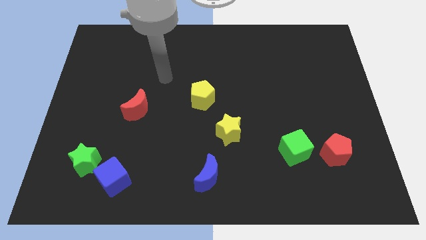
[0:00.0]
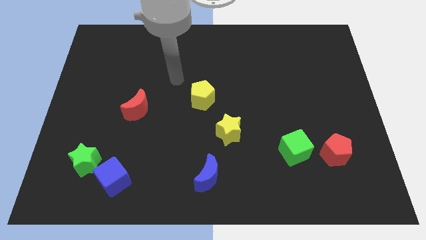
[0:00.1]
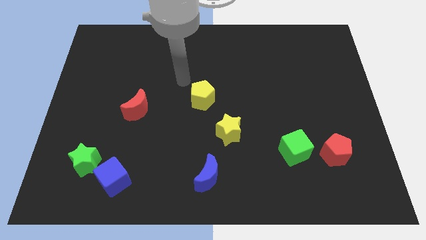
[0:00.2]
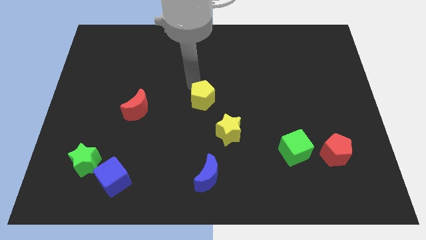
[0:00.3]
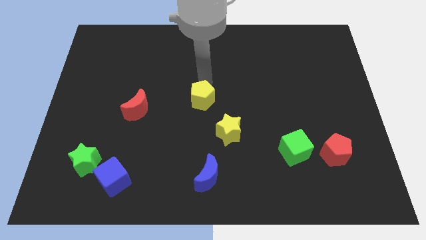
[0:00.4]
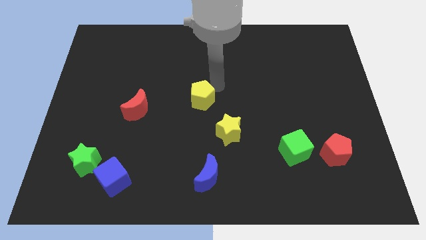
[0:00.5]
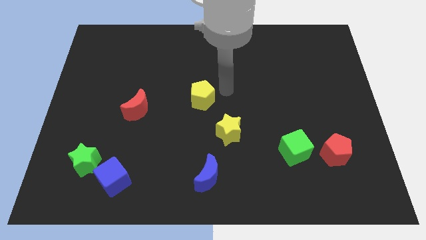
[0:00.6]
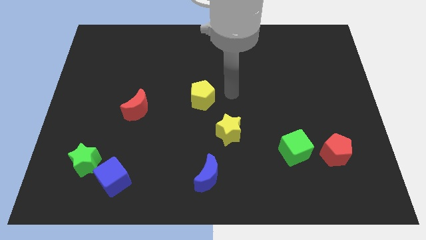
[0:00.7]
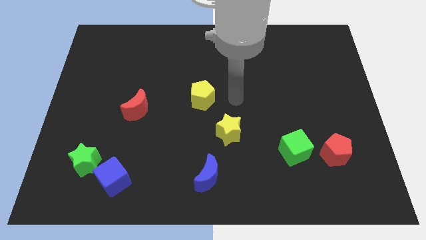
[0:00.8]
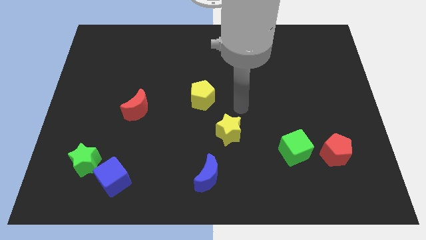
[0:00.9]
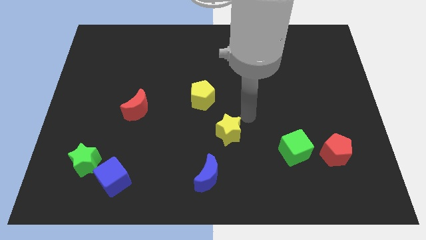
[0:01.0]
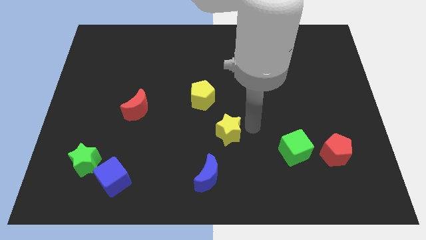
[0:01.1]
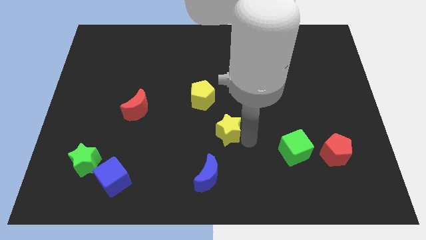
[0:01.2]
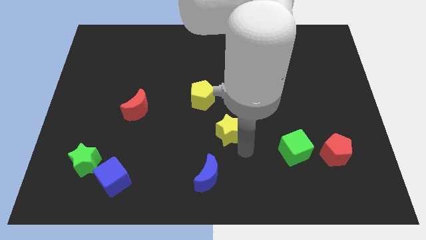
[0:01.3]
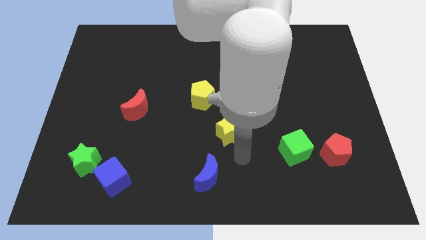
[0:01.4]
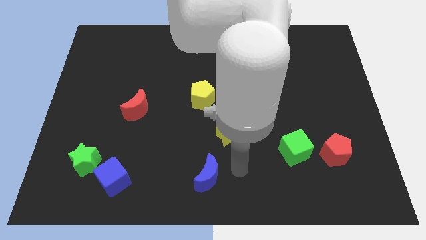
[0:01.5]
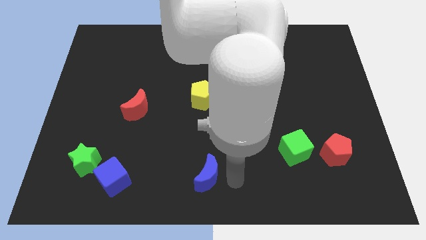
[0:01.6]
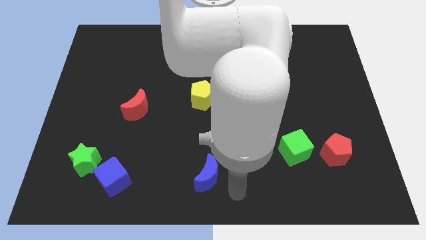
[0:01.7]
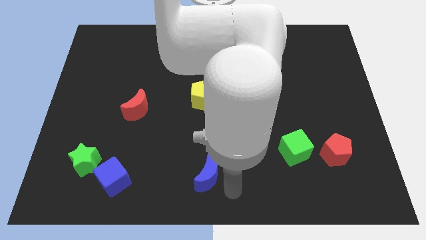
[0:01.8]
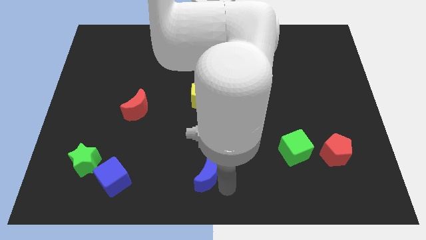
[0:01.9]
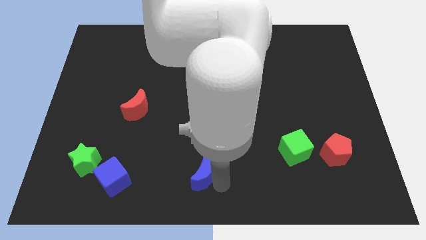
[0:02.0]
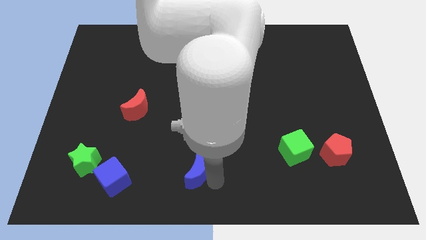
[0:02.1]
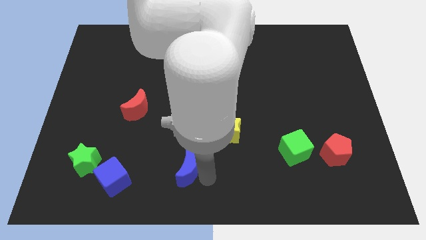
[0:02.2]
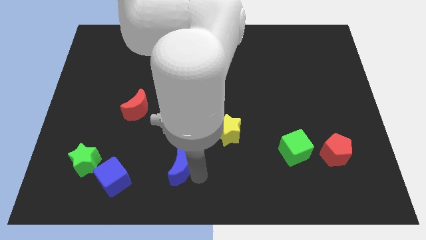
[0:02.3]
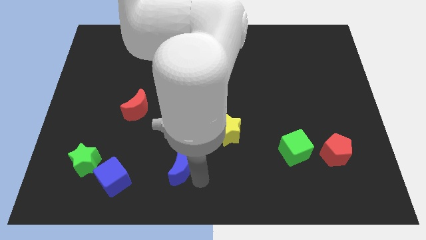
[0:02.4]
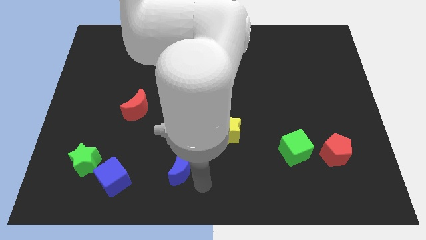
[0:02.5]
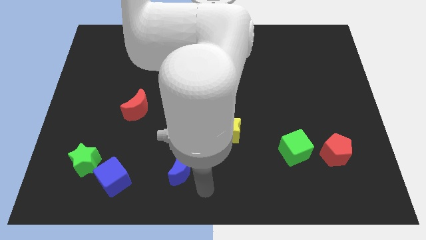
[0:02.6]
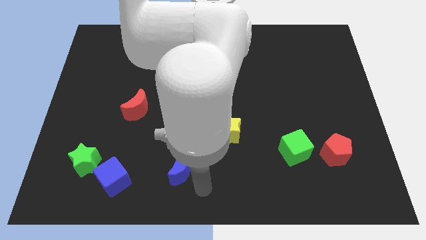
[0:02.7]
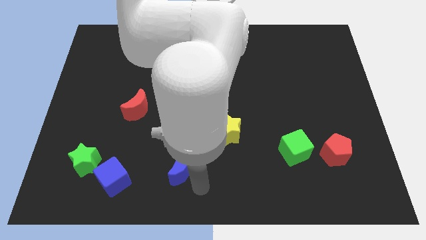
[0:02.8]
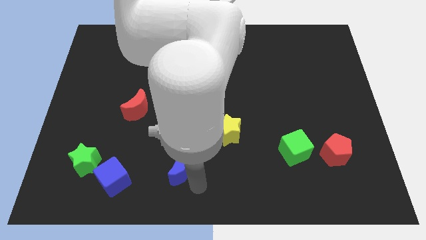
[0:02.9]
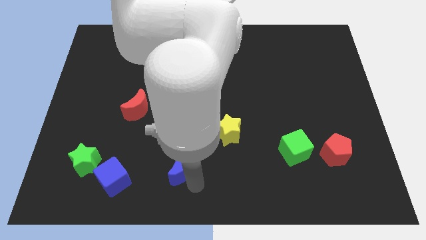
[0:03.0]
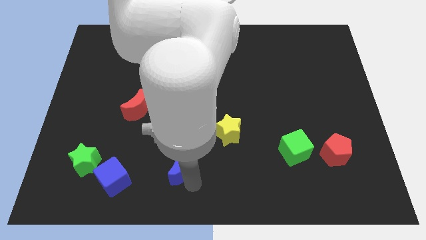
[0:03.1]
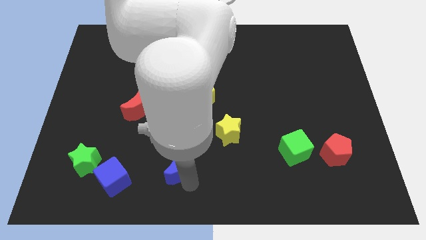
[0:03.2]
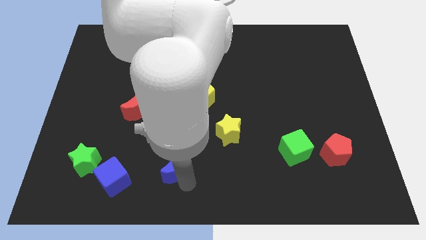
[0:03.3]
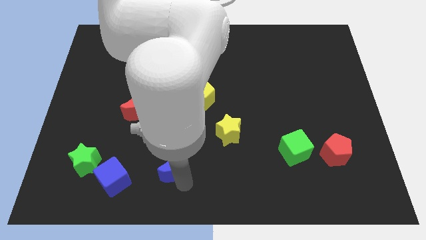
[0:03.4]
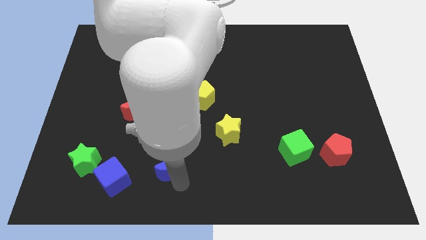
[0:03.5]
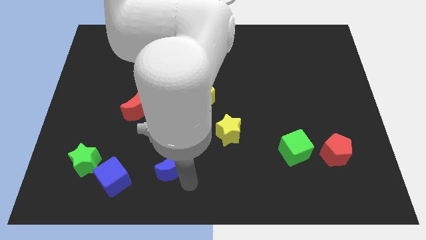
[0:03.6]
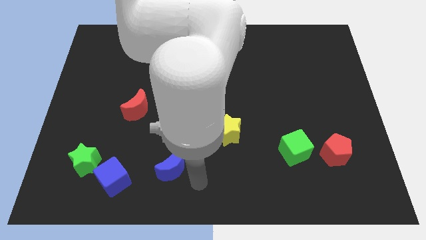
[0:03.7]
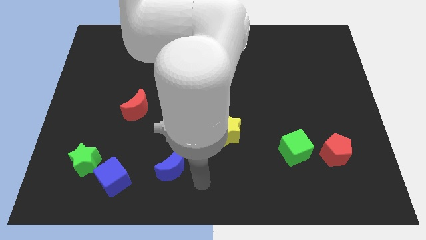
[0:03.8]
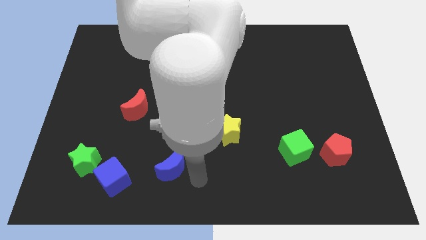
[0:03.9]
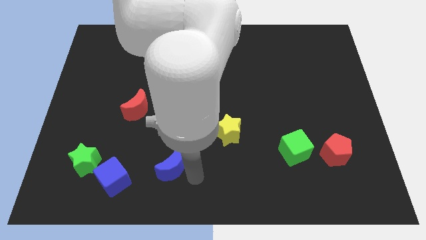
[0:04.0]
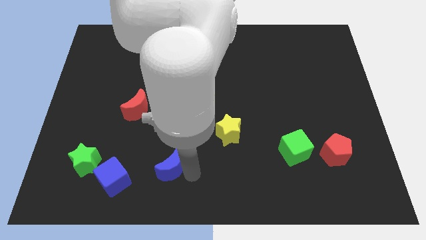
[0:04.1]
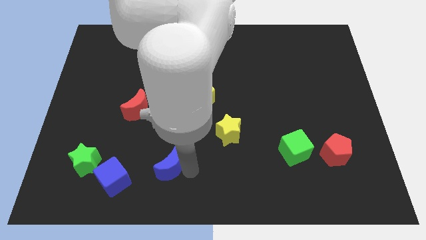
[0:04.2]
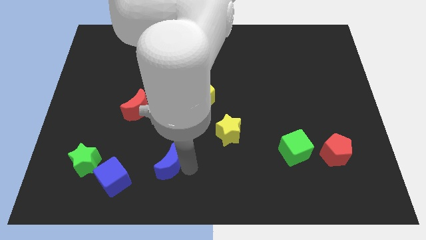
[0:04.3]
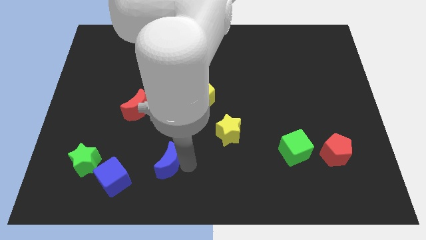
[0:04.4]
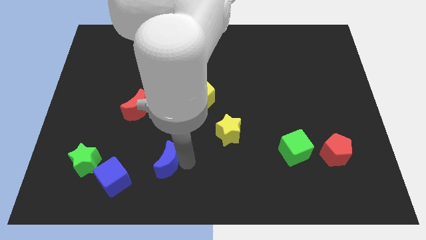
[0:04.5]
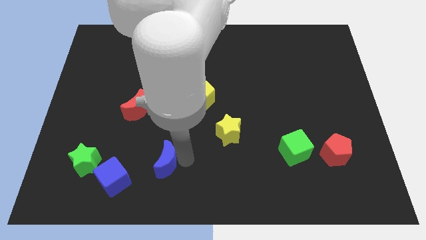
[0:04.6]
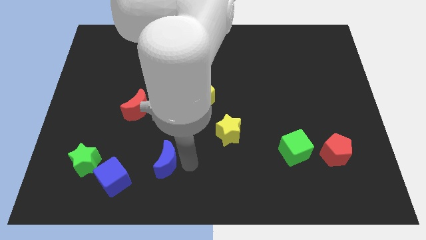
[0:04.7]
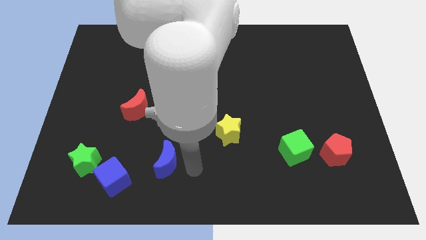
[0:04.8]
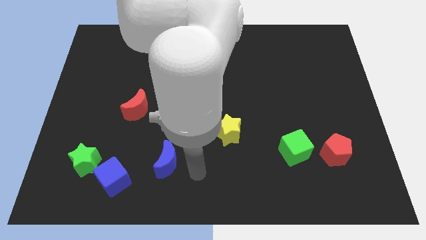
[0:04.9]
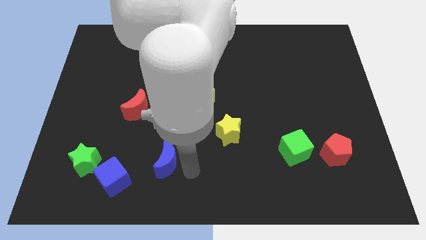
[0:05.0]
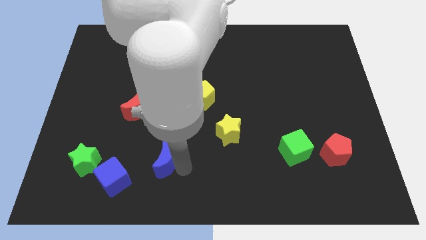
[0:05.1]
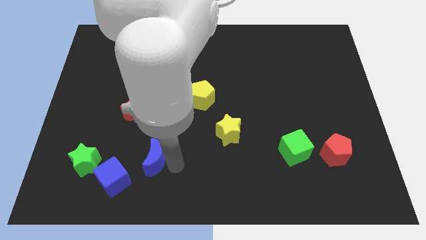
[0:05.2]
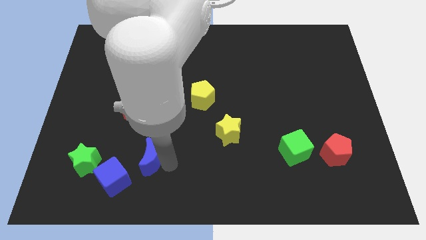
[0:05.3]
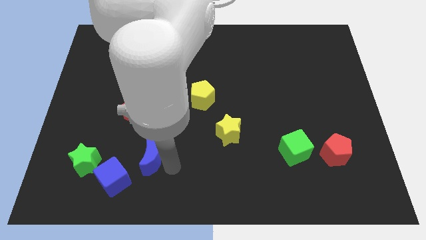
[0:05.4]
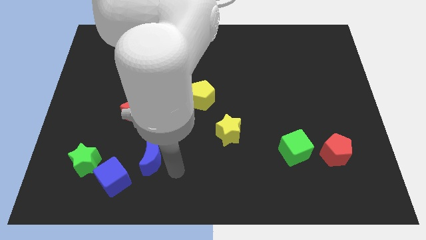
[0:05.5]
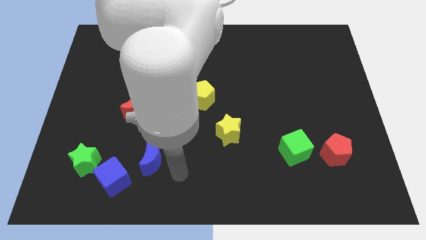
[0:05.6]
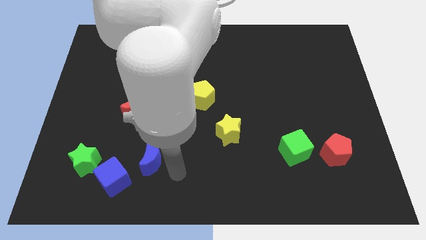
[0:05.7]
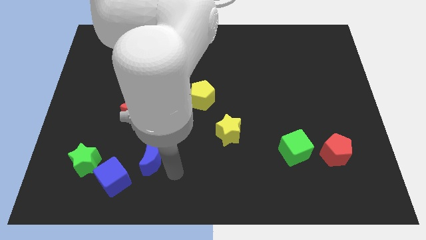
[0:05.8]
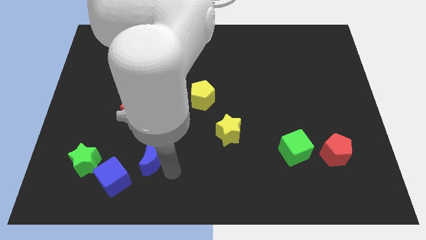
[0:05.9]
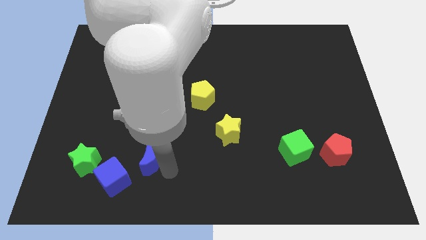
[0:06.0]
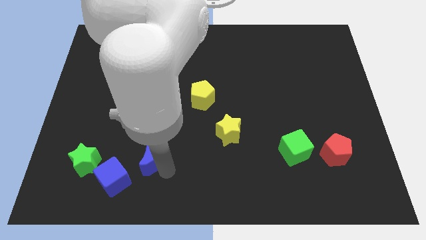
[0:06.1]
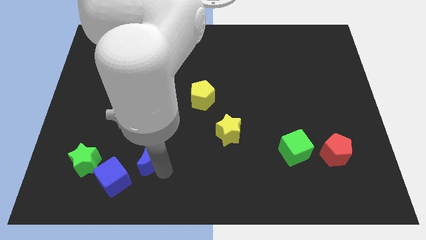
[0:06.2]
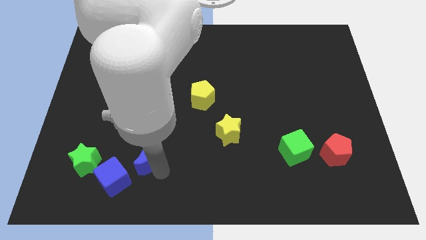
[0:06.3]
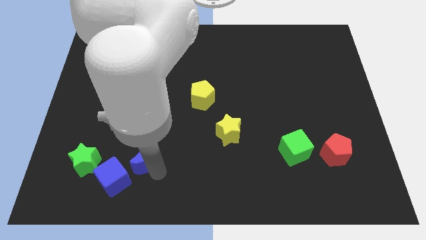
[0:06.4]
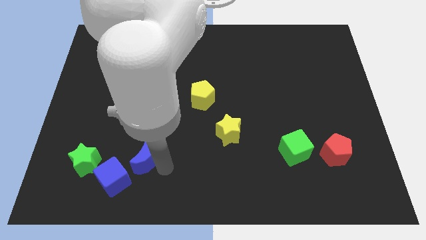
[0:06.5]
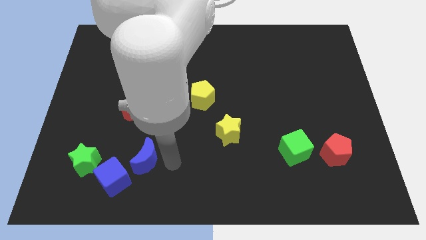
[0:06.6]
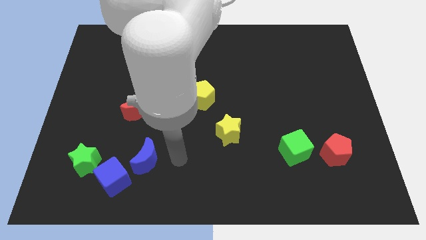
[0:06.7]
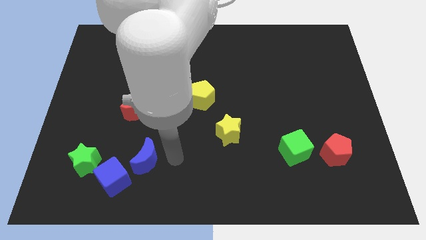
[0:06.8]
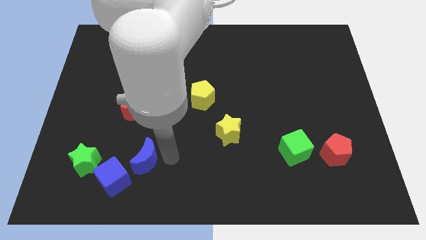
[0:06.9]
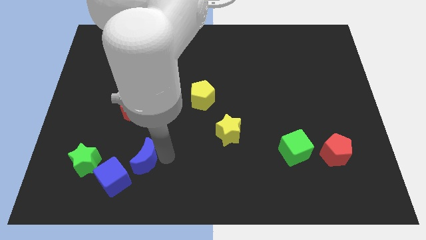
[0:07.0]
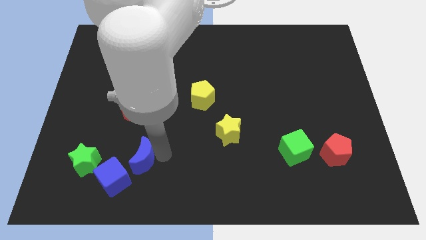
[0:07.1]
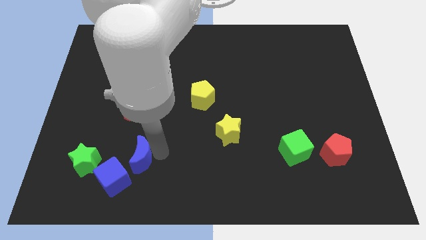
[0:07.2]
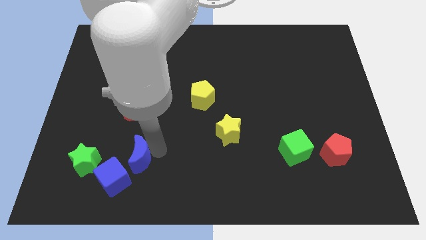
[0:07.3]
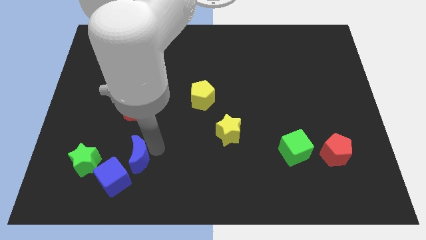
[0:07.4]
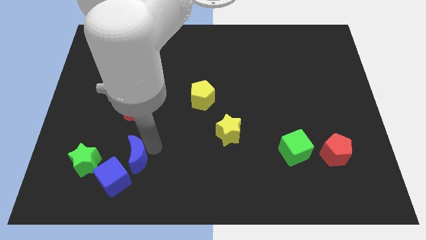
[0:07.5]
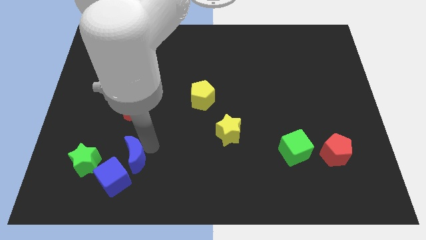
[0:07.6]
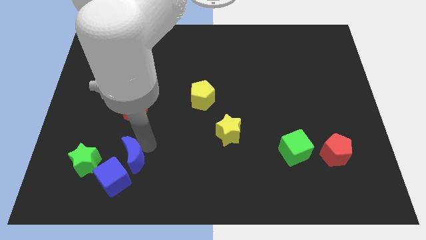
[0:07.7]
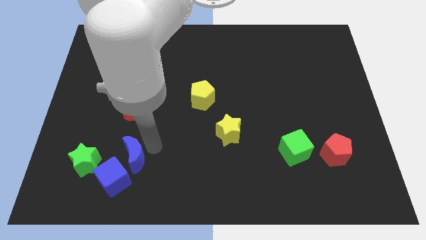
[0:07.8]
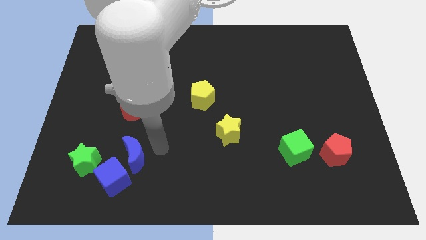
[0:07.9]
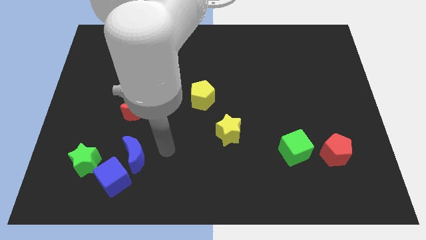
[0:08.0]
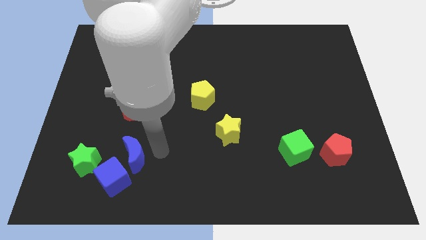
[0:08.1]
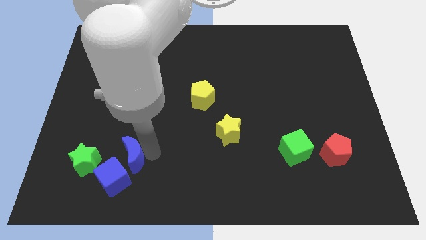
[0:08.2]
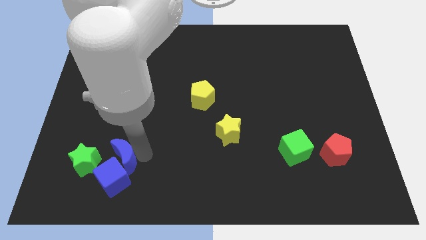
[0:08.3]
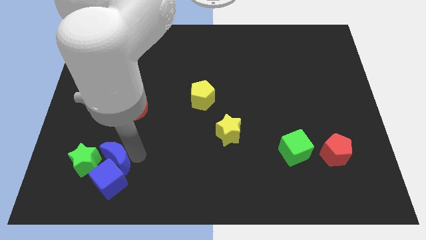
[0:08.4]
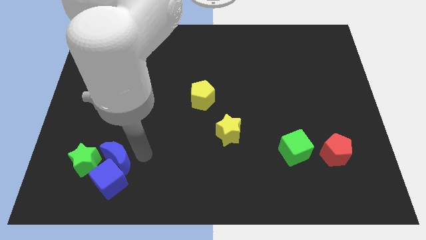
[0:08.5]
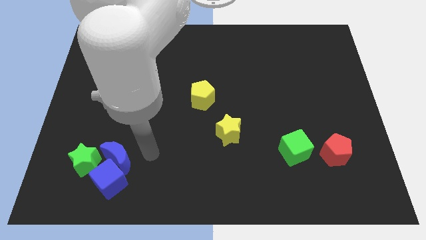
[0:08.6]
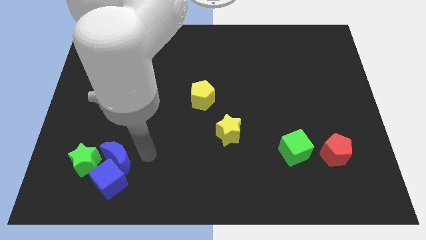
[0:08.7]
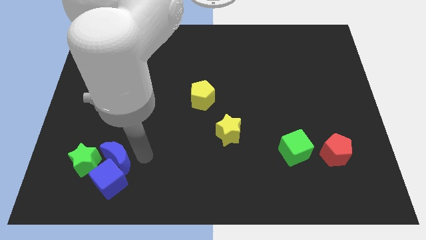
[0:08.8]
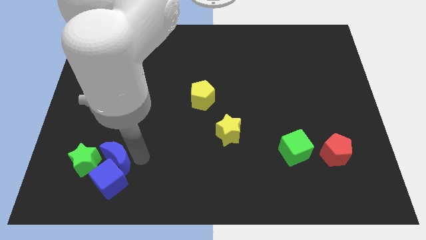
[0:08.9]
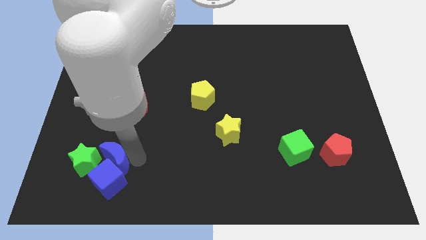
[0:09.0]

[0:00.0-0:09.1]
slide the blue moon towards the green star
